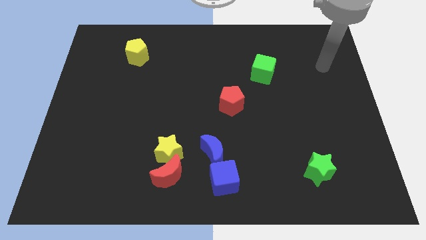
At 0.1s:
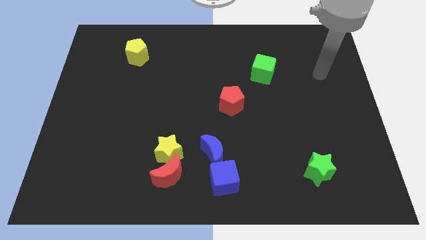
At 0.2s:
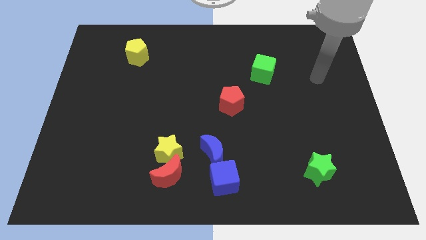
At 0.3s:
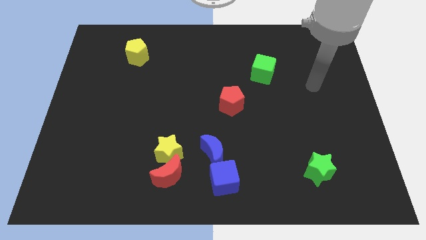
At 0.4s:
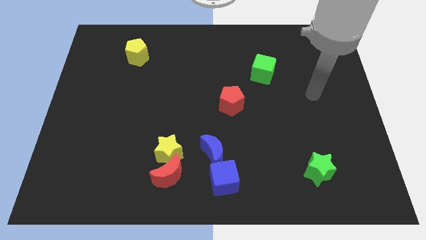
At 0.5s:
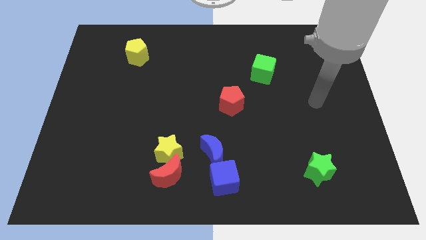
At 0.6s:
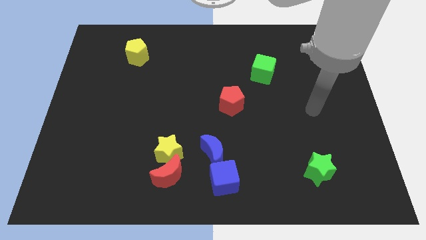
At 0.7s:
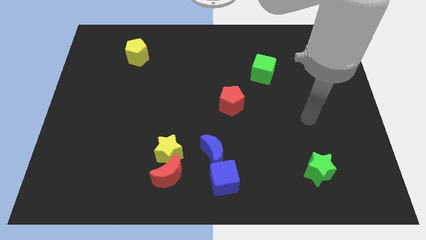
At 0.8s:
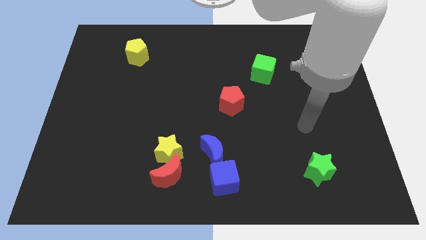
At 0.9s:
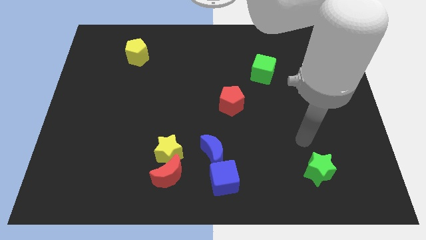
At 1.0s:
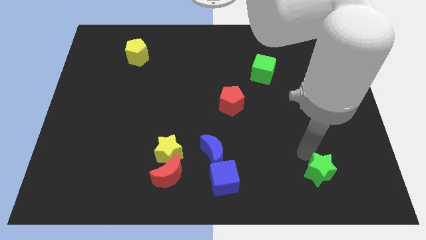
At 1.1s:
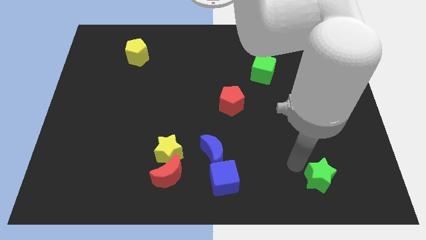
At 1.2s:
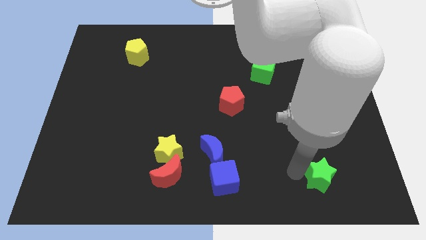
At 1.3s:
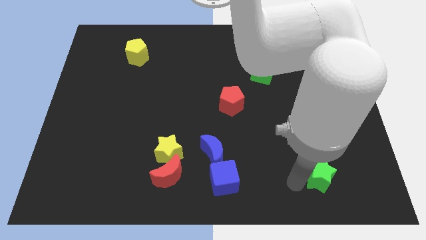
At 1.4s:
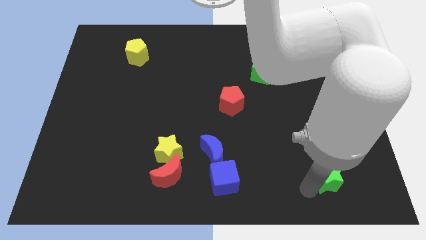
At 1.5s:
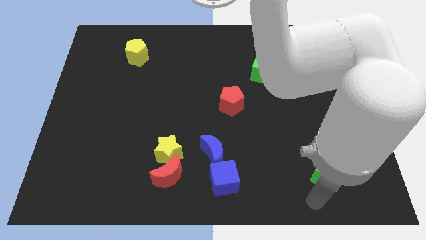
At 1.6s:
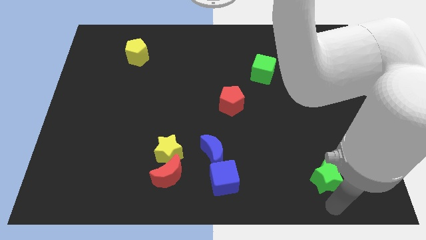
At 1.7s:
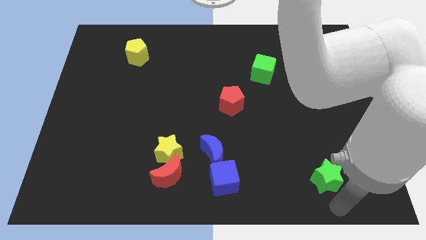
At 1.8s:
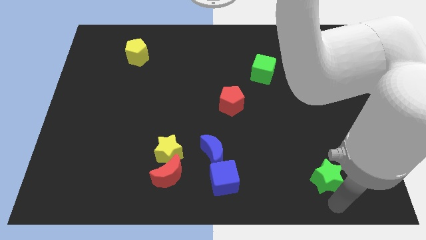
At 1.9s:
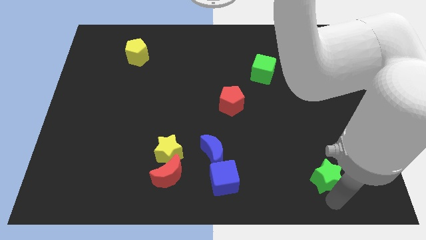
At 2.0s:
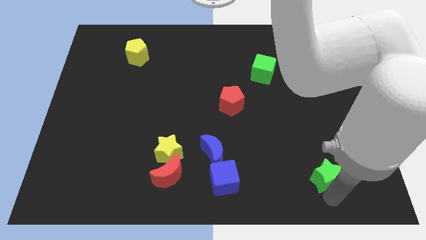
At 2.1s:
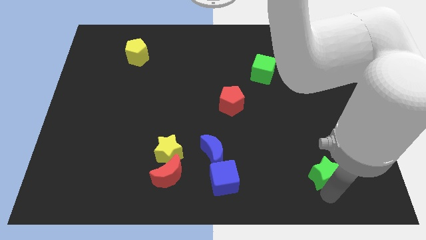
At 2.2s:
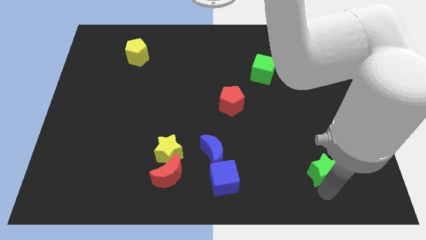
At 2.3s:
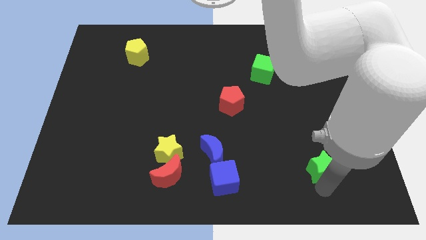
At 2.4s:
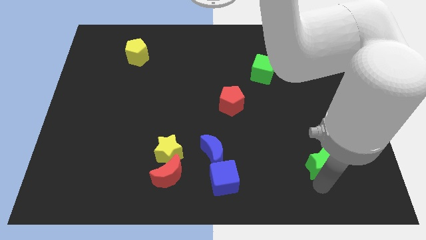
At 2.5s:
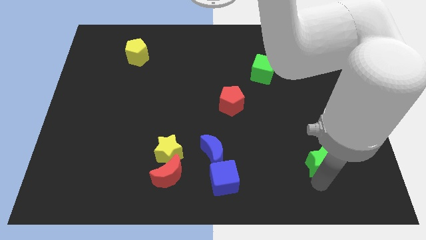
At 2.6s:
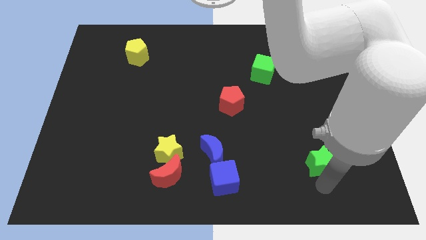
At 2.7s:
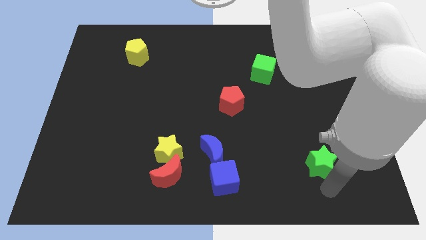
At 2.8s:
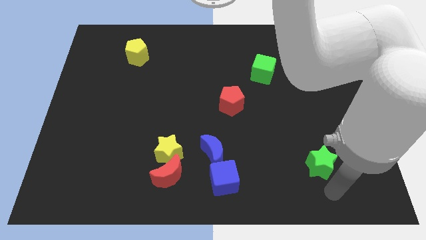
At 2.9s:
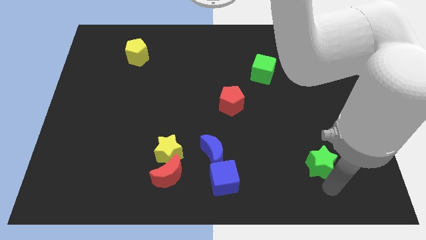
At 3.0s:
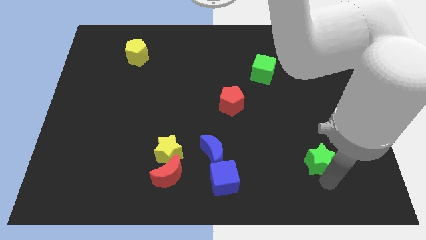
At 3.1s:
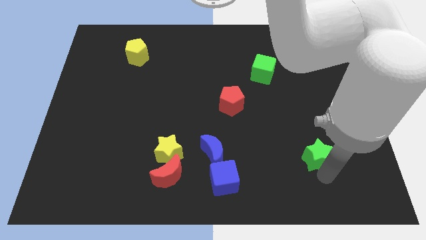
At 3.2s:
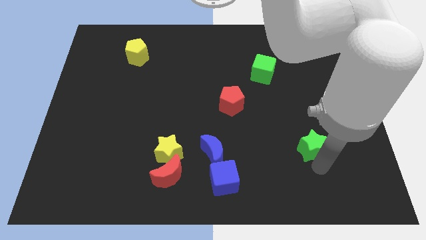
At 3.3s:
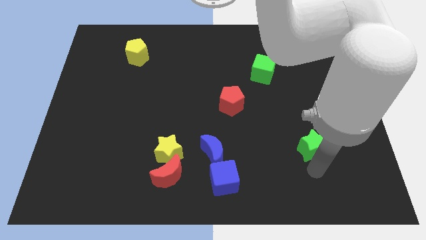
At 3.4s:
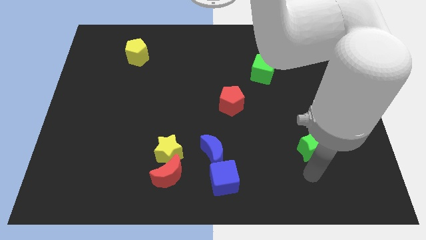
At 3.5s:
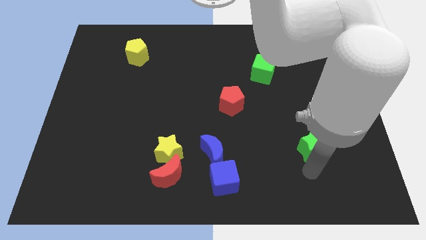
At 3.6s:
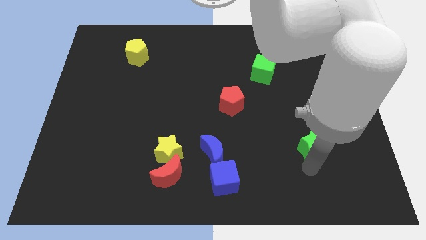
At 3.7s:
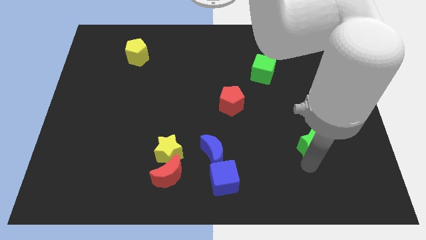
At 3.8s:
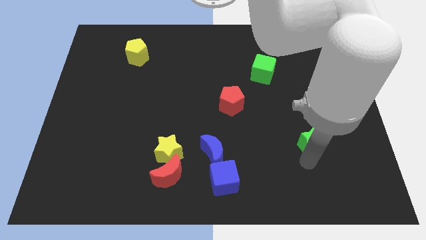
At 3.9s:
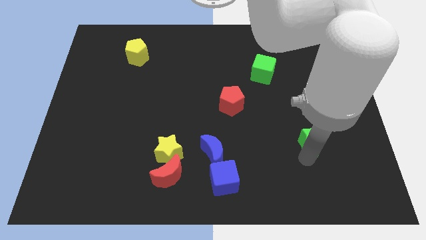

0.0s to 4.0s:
push the green star somewhat up

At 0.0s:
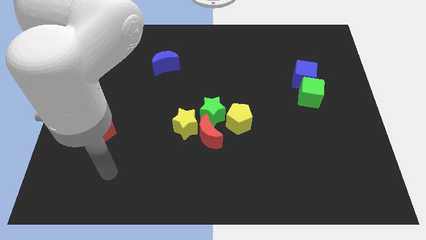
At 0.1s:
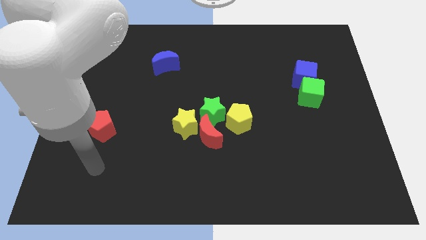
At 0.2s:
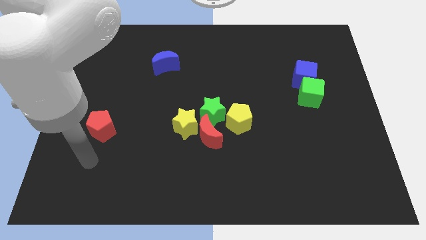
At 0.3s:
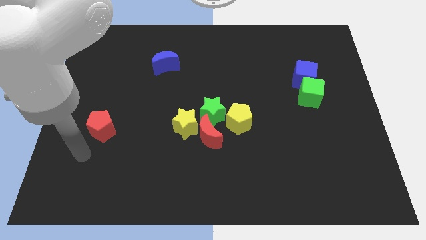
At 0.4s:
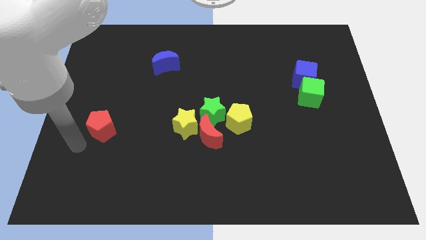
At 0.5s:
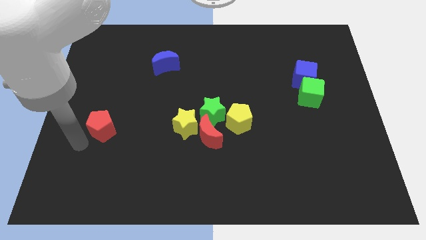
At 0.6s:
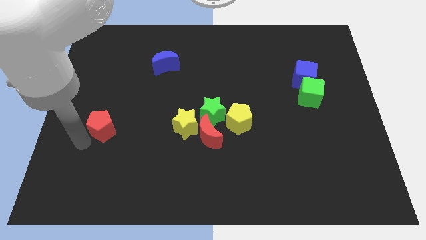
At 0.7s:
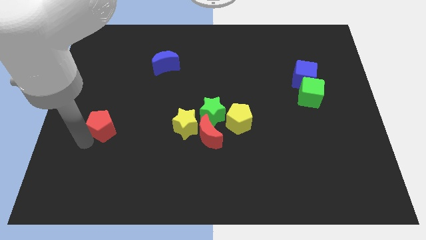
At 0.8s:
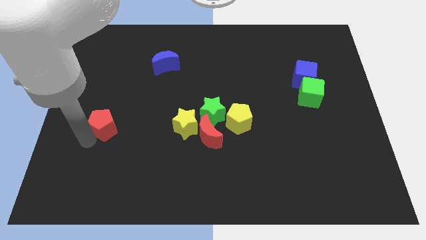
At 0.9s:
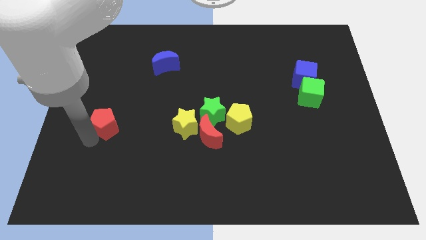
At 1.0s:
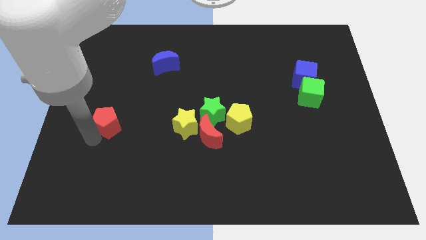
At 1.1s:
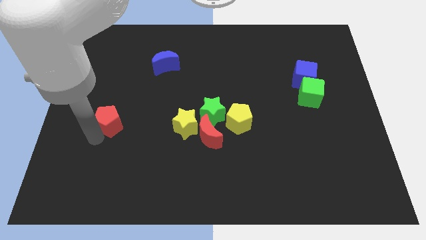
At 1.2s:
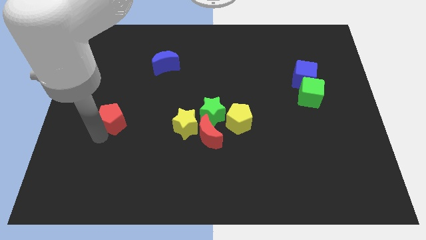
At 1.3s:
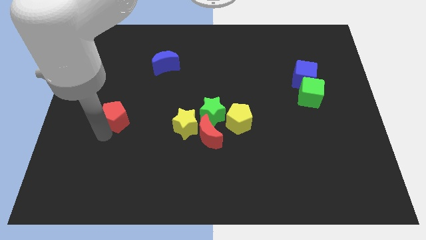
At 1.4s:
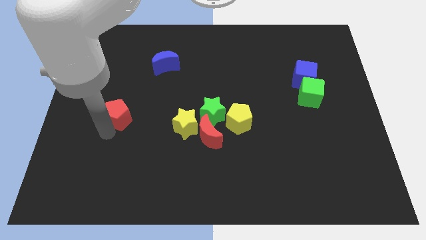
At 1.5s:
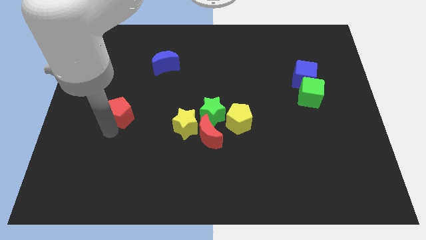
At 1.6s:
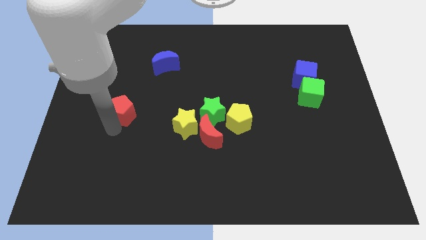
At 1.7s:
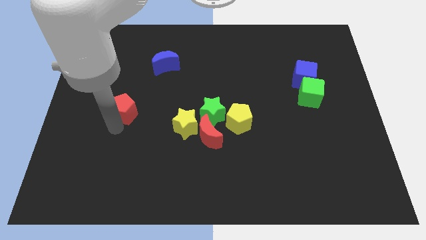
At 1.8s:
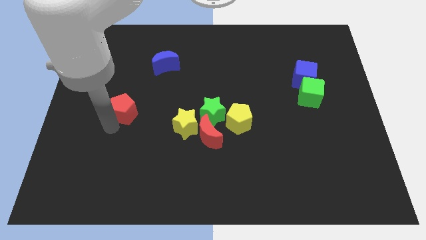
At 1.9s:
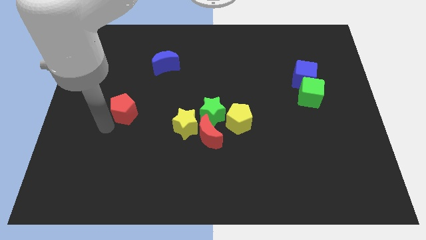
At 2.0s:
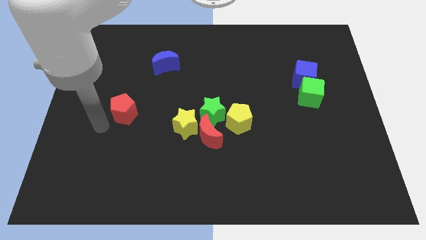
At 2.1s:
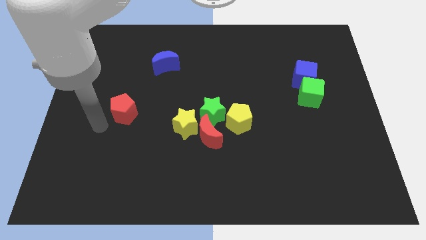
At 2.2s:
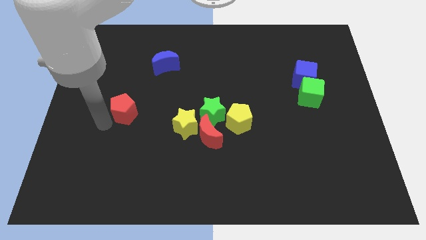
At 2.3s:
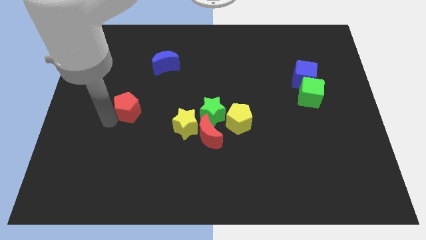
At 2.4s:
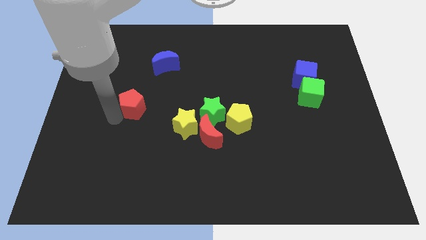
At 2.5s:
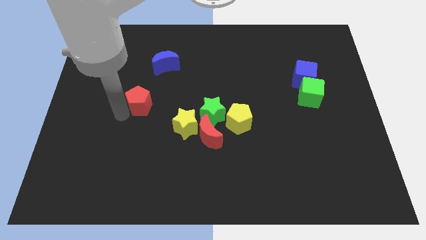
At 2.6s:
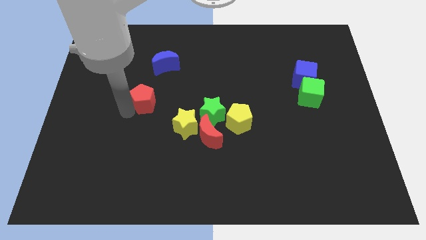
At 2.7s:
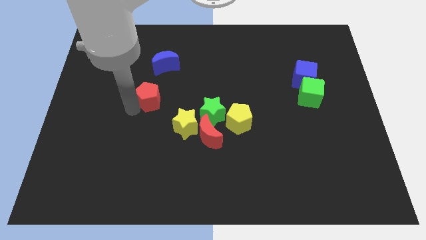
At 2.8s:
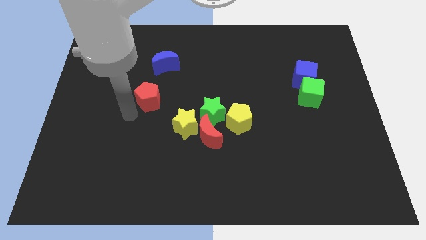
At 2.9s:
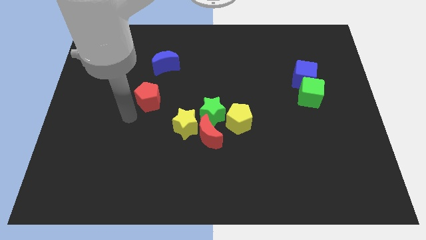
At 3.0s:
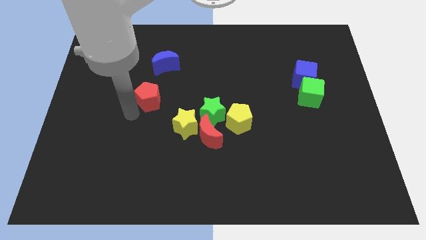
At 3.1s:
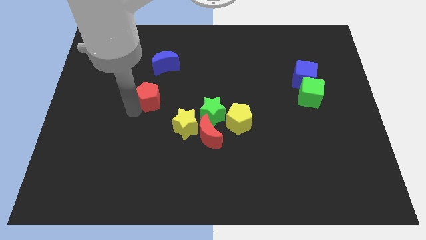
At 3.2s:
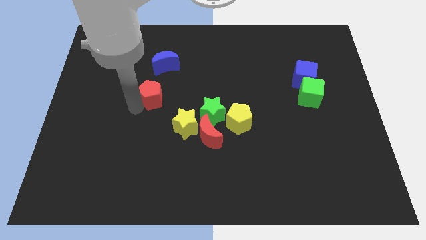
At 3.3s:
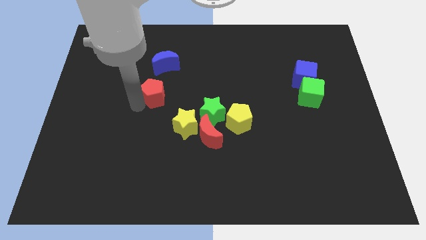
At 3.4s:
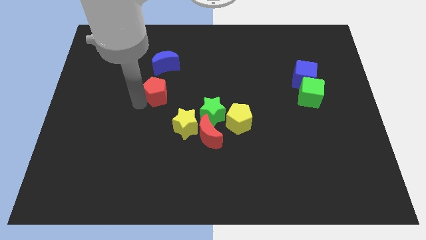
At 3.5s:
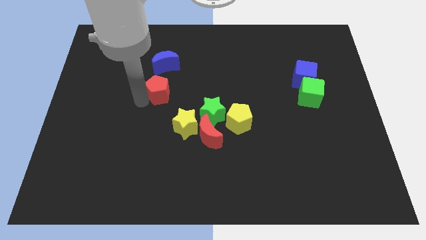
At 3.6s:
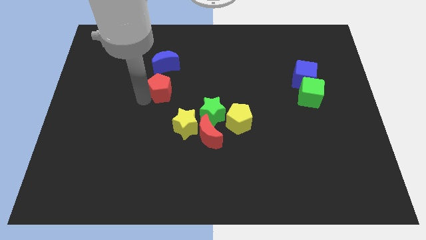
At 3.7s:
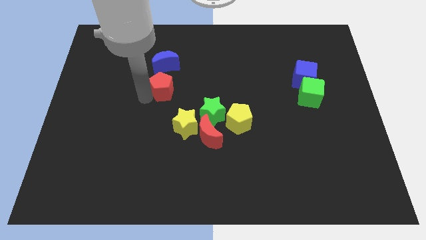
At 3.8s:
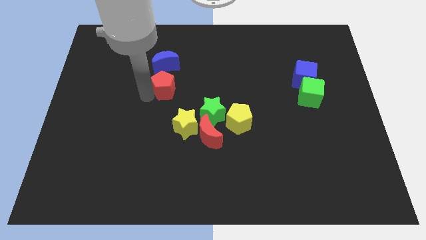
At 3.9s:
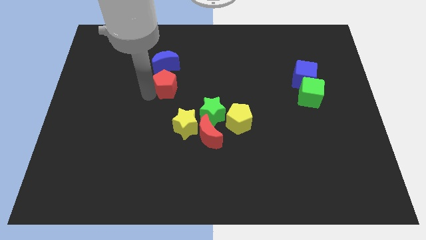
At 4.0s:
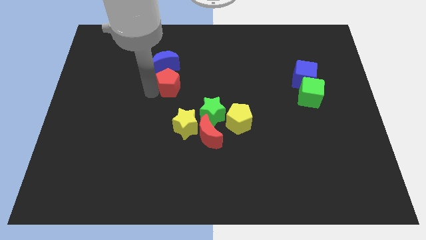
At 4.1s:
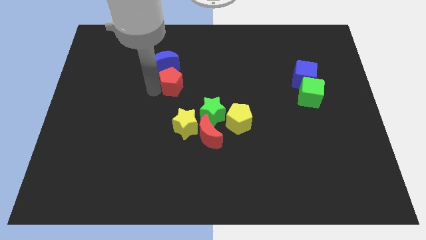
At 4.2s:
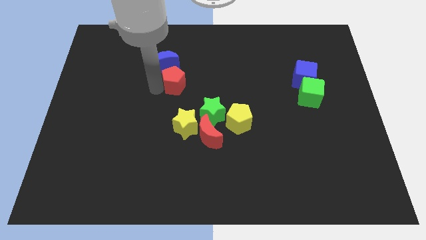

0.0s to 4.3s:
move the red pentagon diagonally up and right
